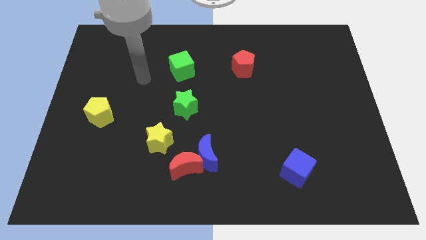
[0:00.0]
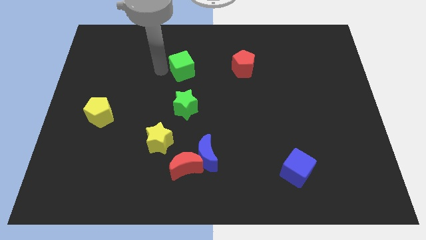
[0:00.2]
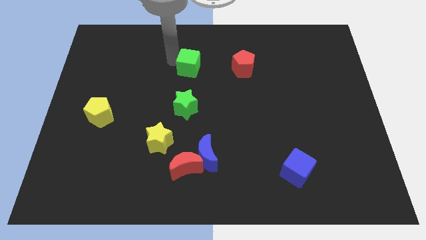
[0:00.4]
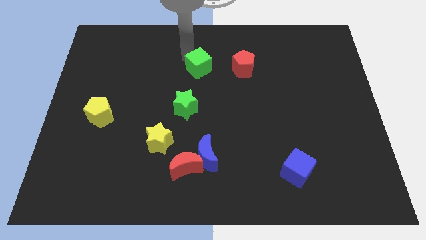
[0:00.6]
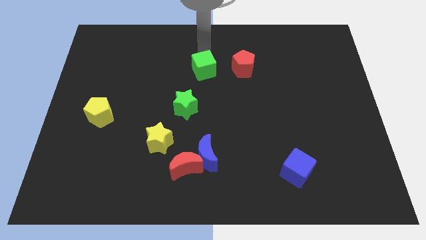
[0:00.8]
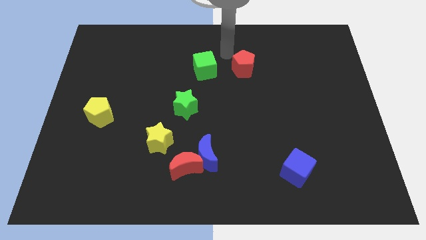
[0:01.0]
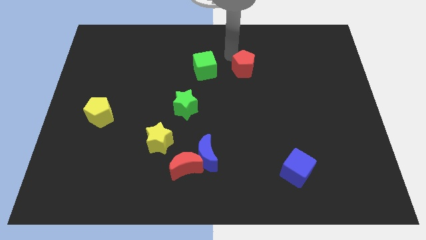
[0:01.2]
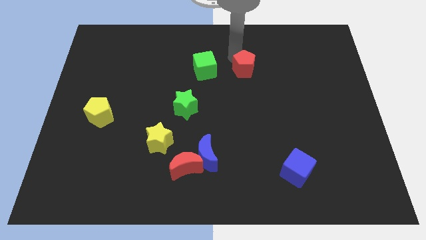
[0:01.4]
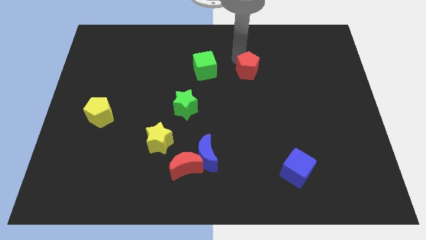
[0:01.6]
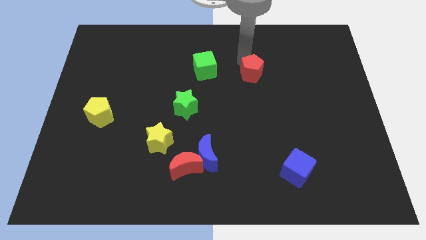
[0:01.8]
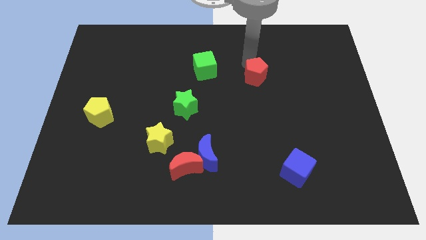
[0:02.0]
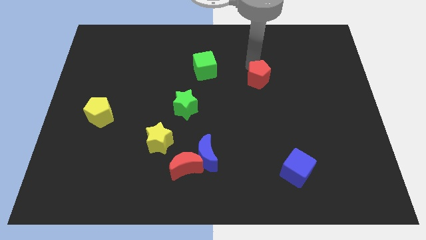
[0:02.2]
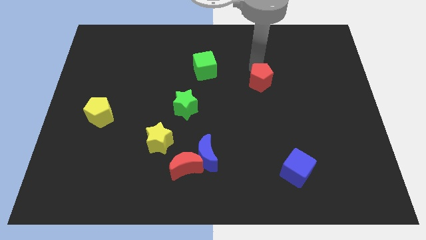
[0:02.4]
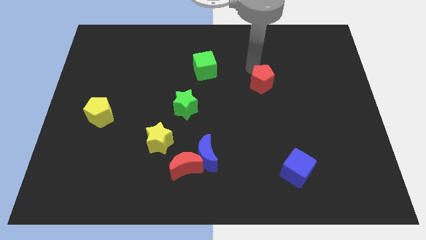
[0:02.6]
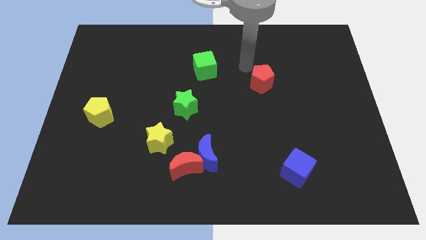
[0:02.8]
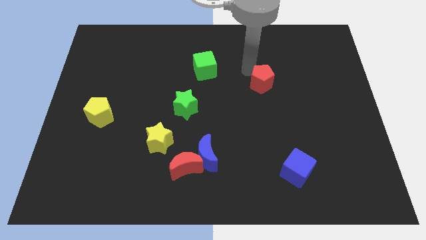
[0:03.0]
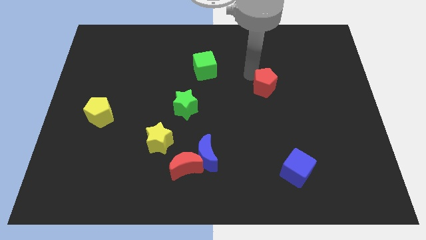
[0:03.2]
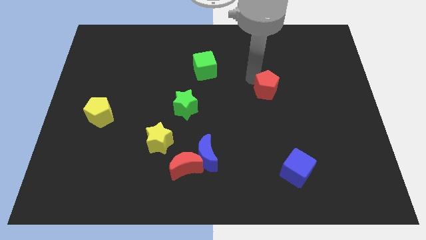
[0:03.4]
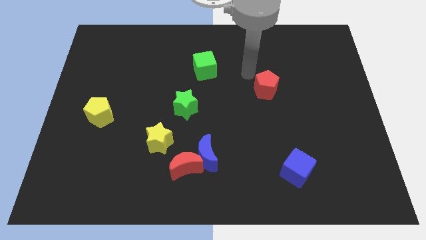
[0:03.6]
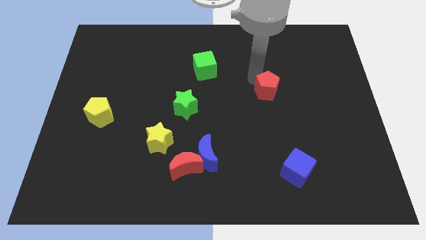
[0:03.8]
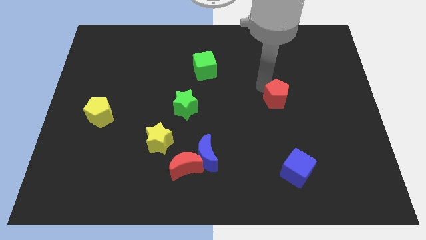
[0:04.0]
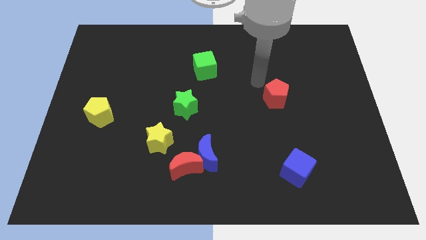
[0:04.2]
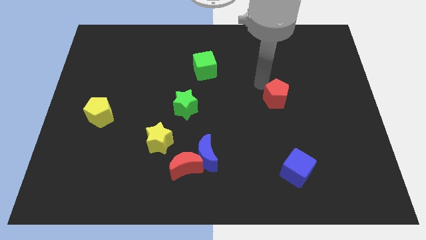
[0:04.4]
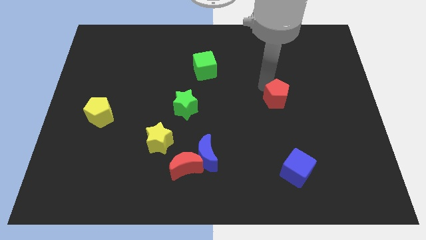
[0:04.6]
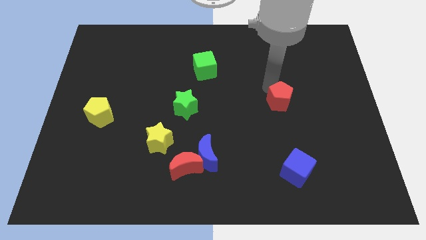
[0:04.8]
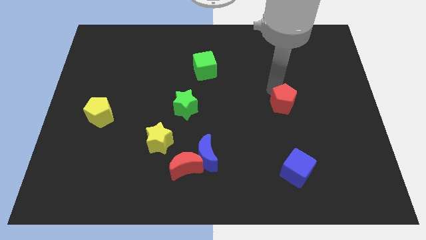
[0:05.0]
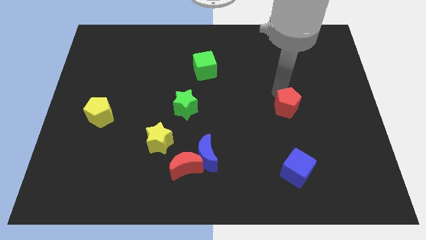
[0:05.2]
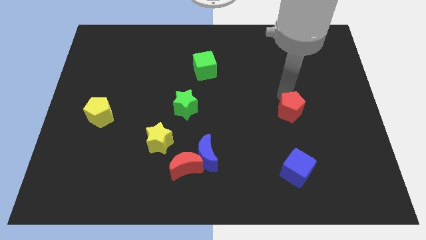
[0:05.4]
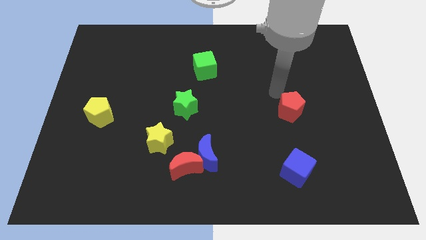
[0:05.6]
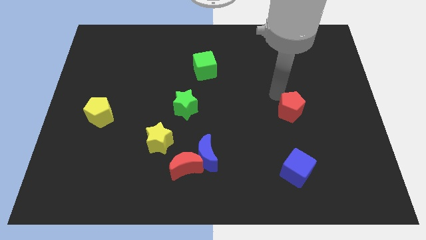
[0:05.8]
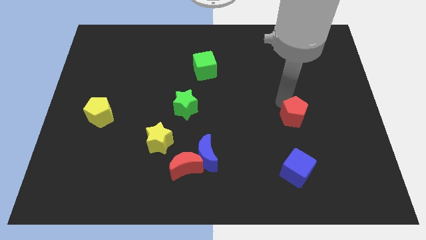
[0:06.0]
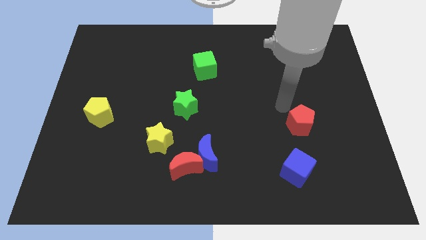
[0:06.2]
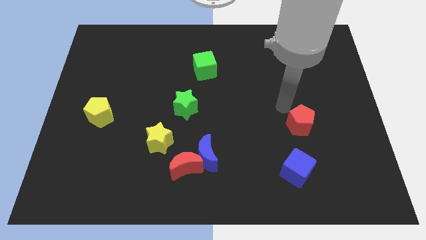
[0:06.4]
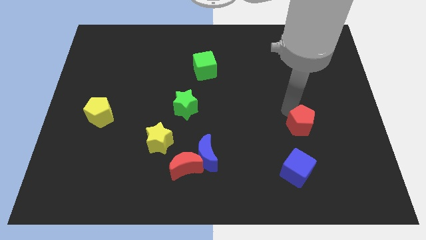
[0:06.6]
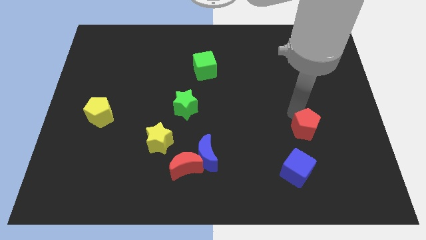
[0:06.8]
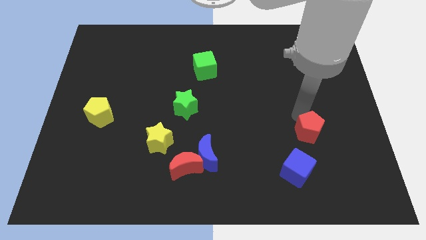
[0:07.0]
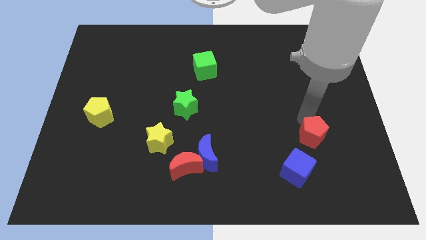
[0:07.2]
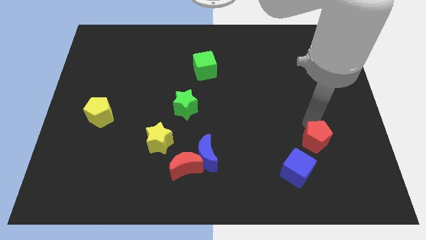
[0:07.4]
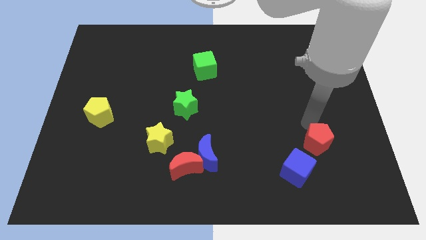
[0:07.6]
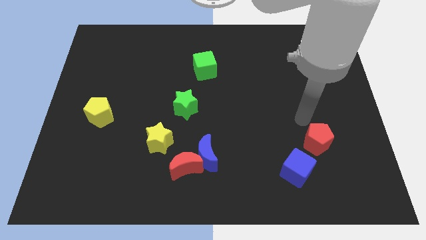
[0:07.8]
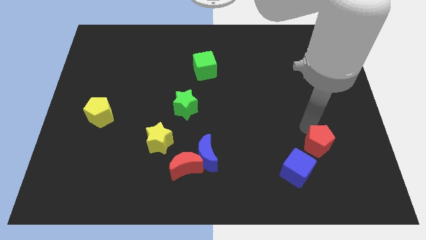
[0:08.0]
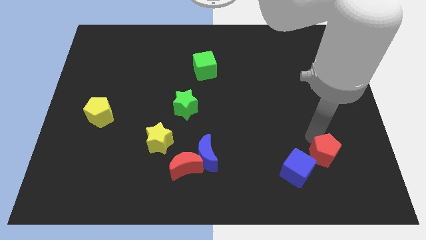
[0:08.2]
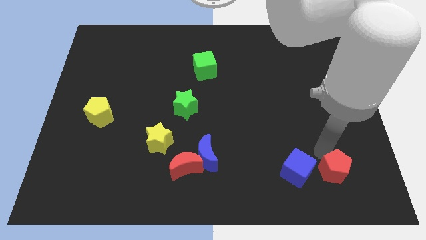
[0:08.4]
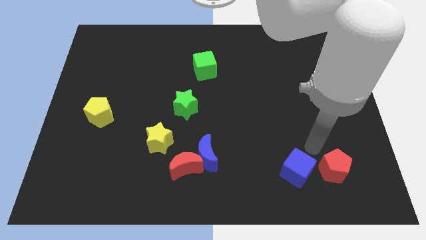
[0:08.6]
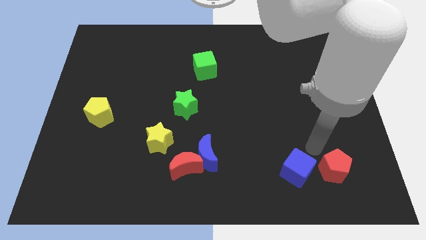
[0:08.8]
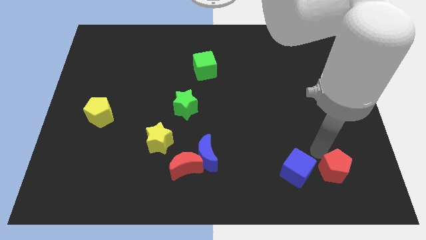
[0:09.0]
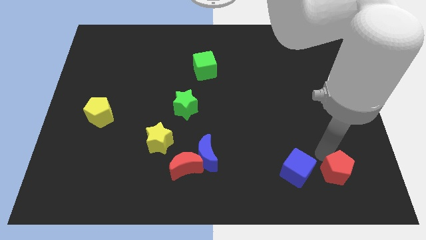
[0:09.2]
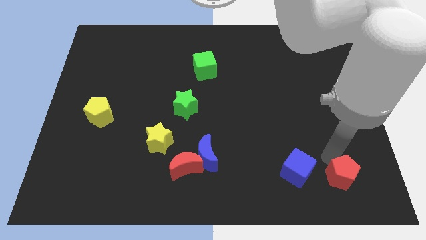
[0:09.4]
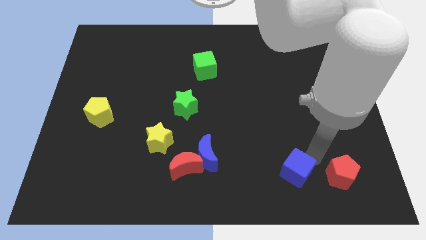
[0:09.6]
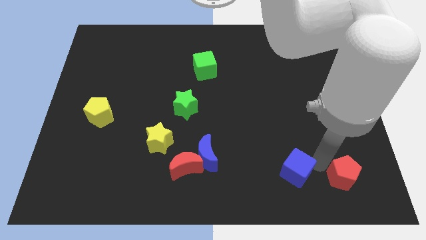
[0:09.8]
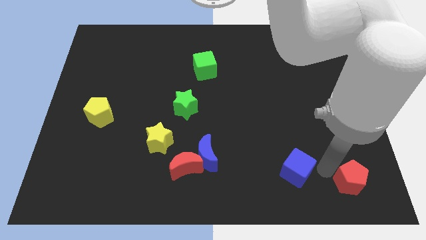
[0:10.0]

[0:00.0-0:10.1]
move the red pentagon to the bottom right corner

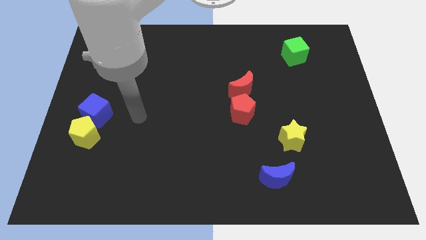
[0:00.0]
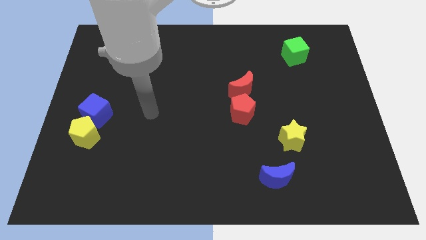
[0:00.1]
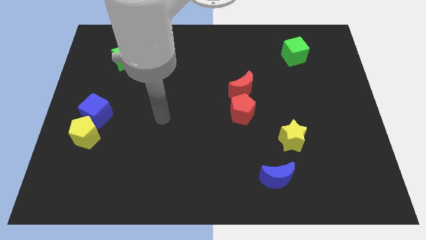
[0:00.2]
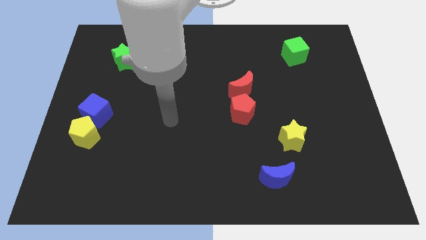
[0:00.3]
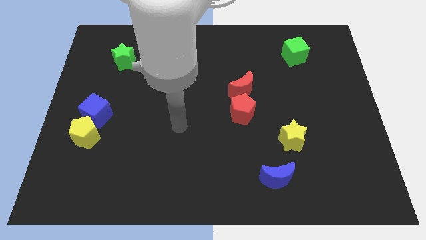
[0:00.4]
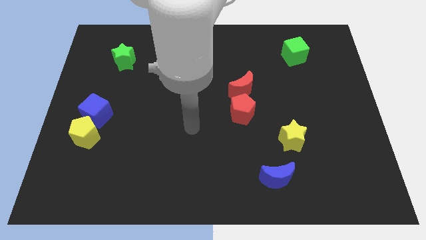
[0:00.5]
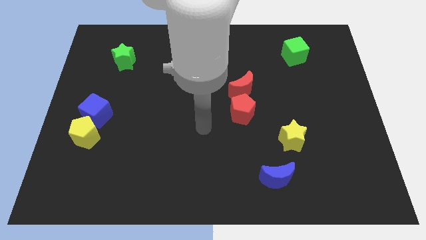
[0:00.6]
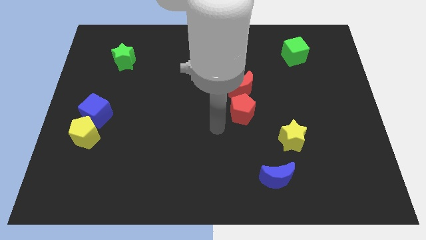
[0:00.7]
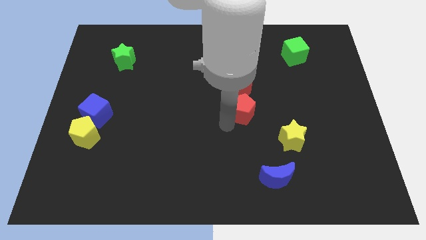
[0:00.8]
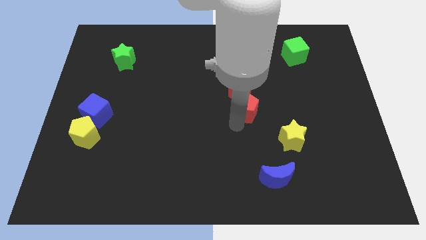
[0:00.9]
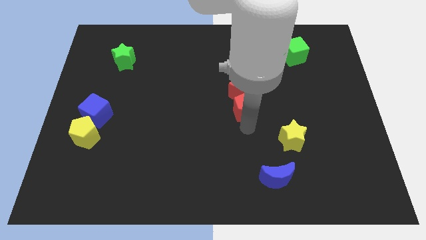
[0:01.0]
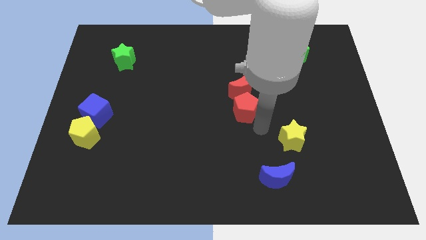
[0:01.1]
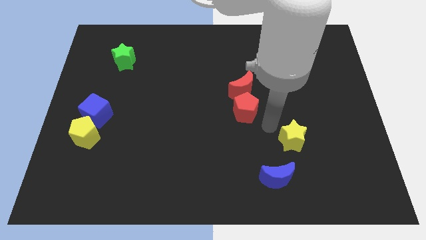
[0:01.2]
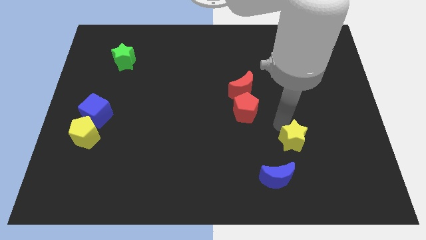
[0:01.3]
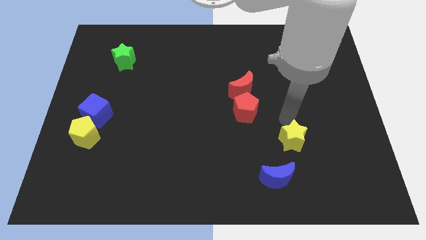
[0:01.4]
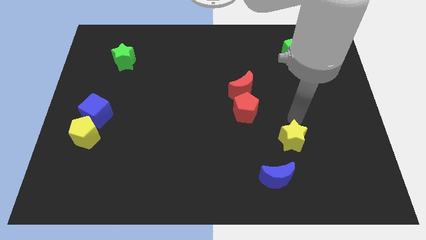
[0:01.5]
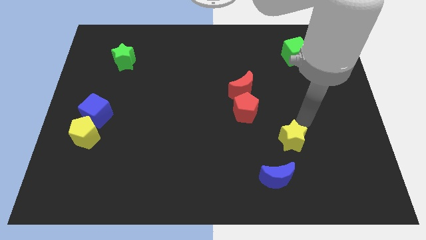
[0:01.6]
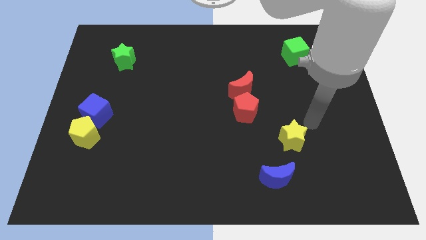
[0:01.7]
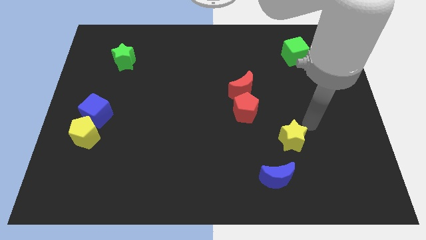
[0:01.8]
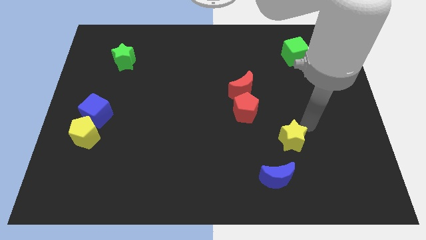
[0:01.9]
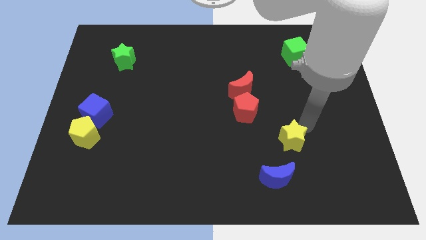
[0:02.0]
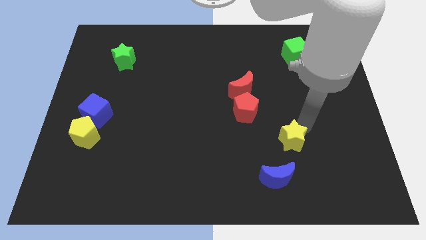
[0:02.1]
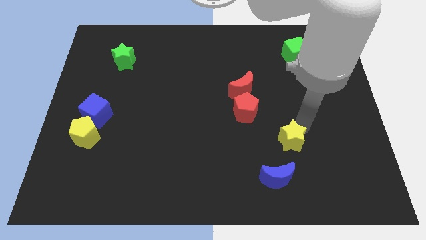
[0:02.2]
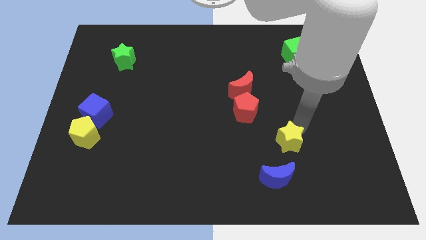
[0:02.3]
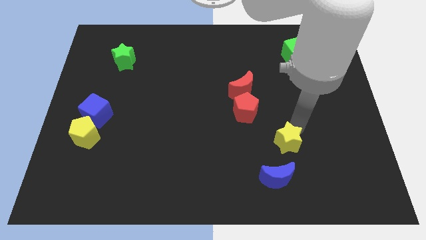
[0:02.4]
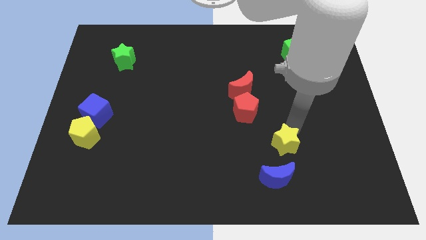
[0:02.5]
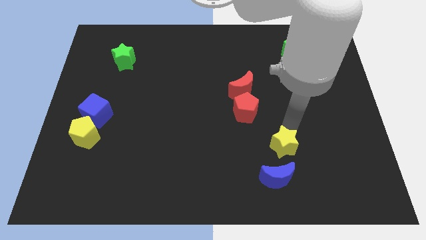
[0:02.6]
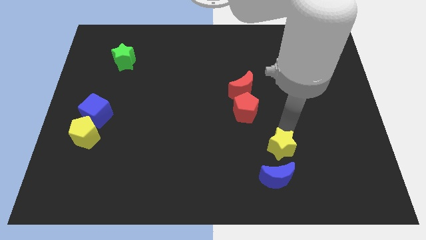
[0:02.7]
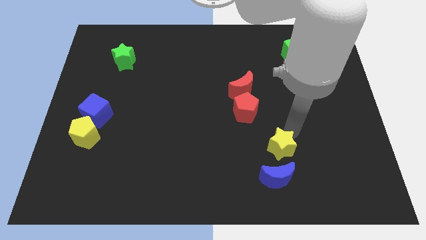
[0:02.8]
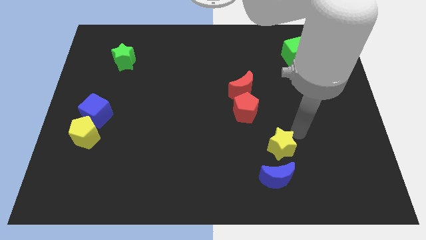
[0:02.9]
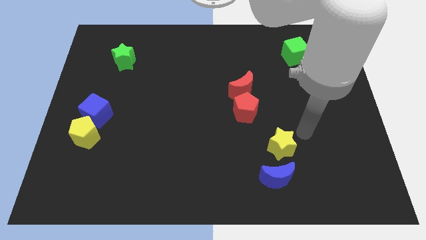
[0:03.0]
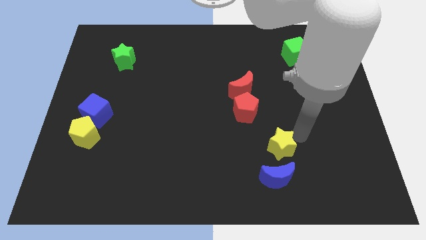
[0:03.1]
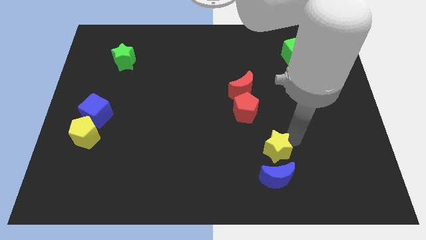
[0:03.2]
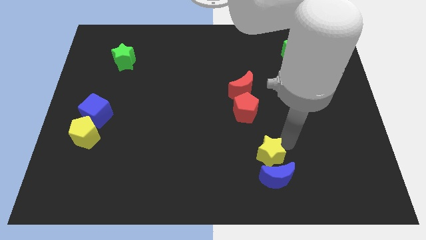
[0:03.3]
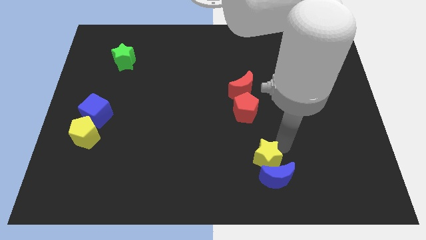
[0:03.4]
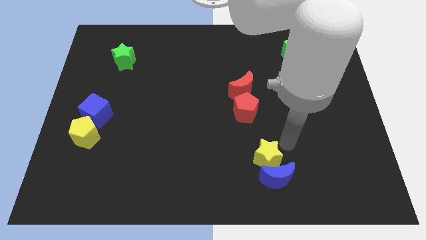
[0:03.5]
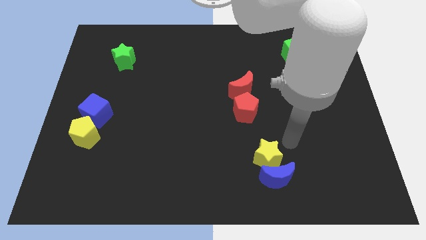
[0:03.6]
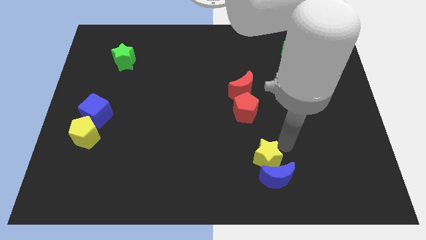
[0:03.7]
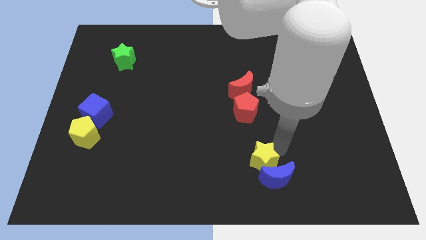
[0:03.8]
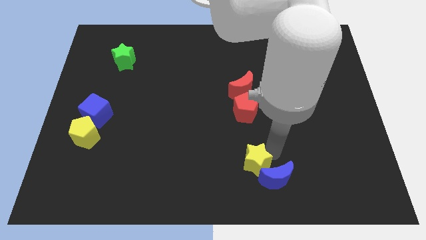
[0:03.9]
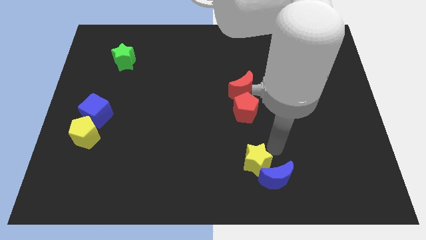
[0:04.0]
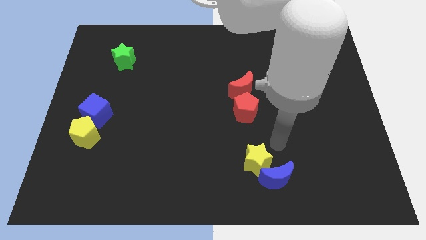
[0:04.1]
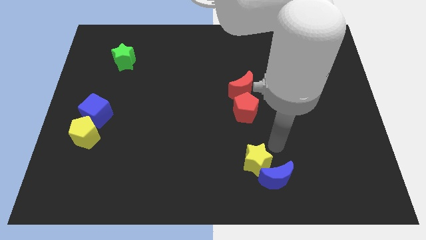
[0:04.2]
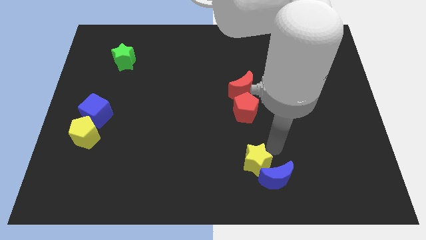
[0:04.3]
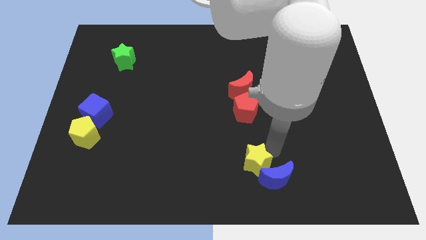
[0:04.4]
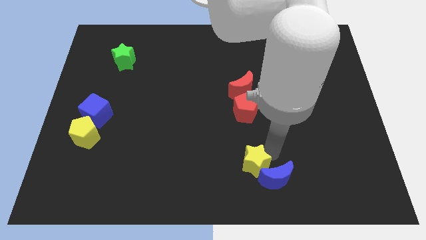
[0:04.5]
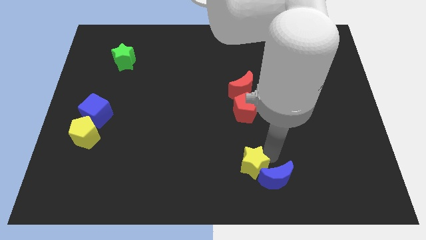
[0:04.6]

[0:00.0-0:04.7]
move the yellow star to the bottom
